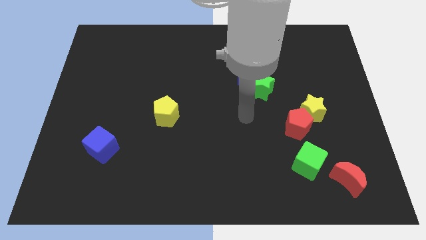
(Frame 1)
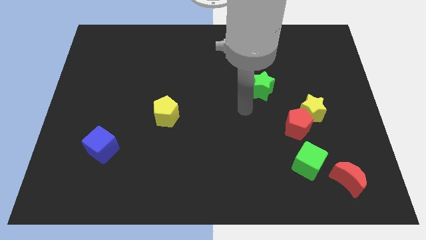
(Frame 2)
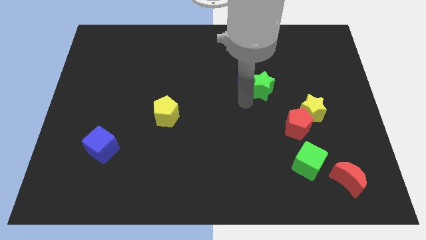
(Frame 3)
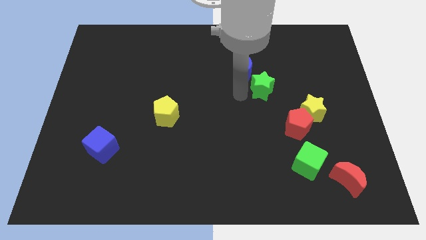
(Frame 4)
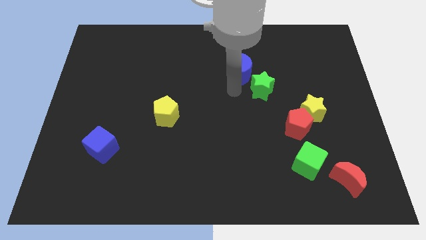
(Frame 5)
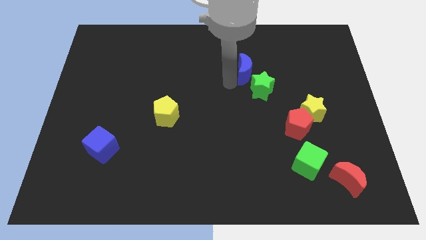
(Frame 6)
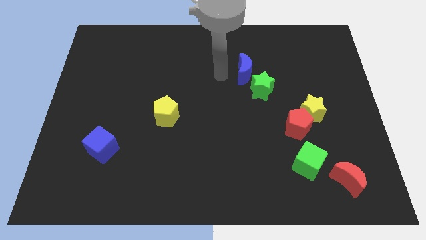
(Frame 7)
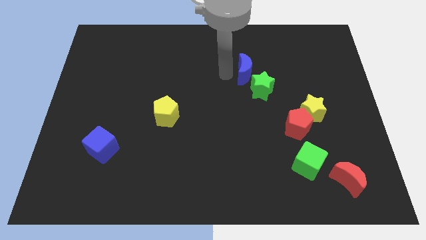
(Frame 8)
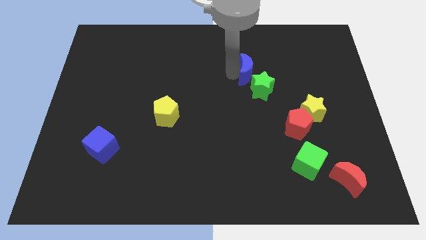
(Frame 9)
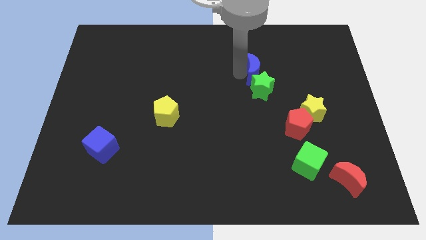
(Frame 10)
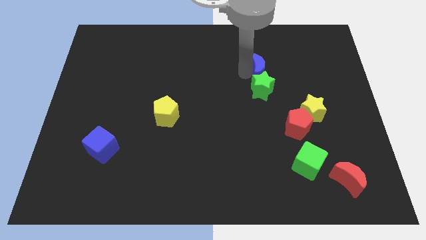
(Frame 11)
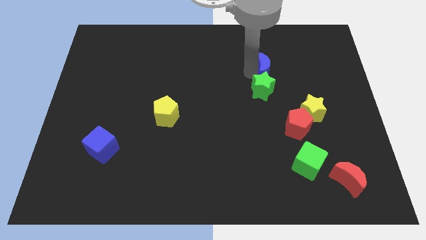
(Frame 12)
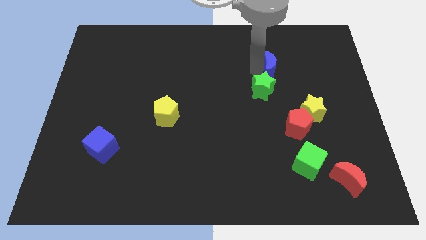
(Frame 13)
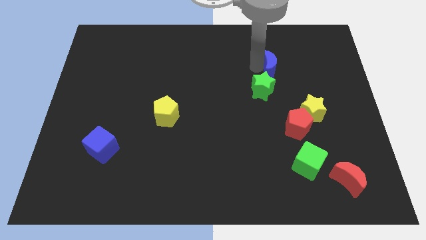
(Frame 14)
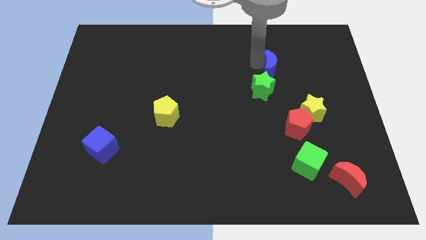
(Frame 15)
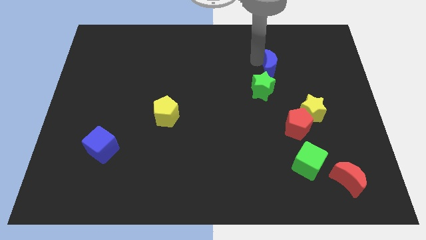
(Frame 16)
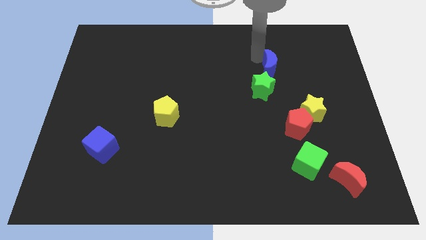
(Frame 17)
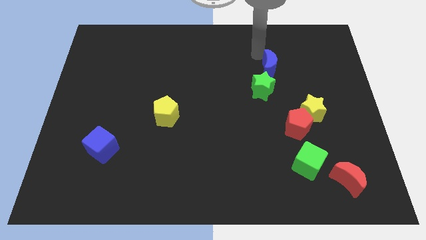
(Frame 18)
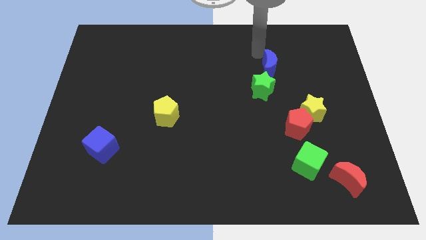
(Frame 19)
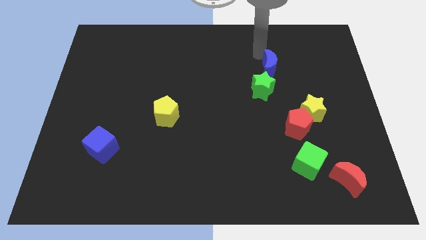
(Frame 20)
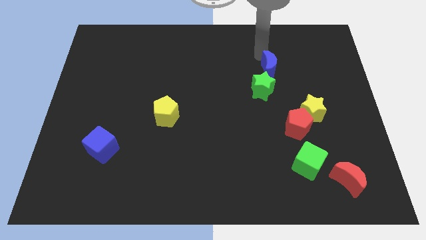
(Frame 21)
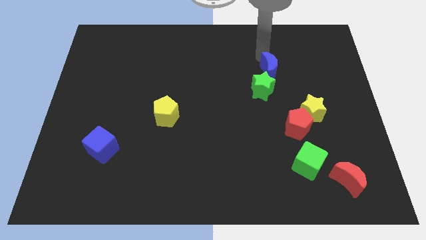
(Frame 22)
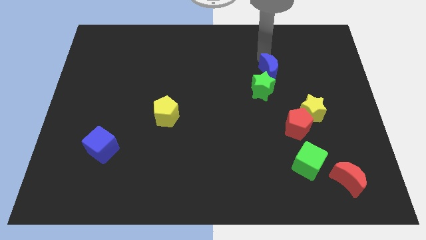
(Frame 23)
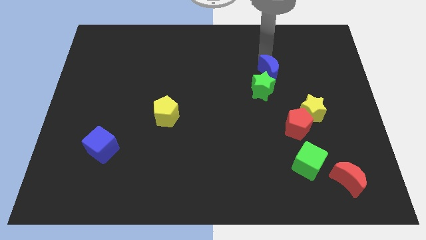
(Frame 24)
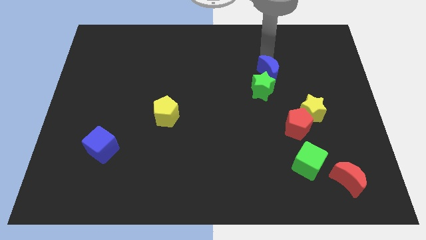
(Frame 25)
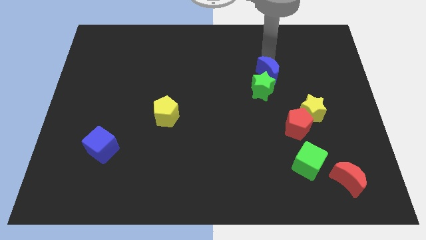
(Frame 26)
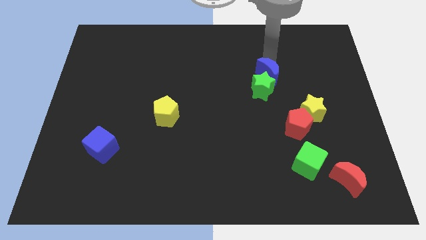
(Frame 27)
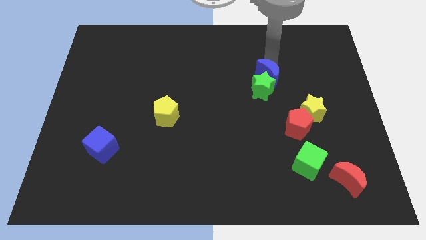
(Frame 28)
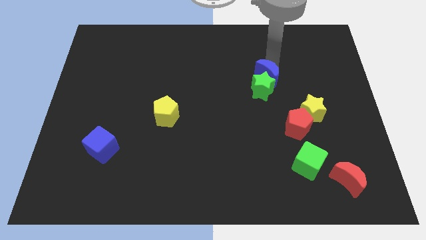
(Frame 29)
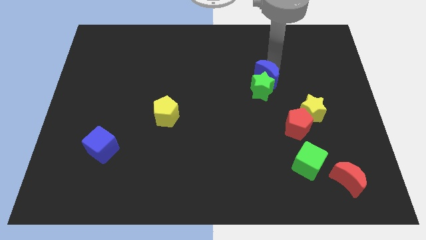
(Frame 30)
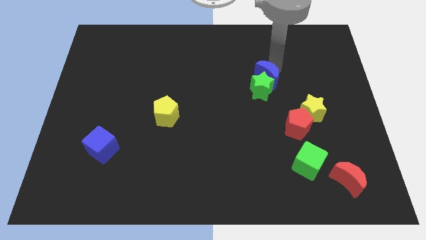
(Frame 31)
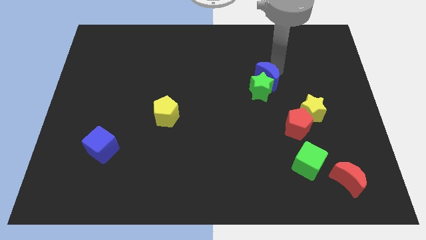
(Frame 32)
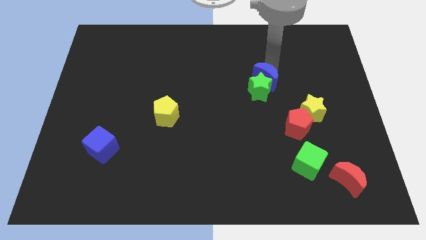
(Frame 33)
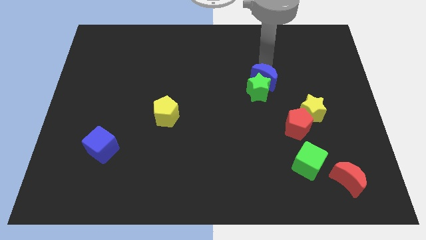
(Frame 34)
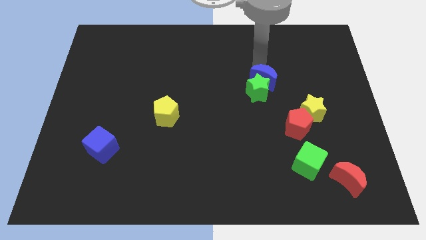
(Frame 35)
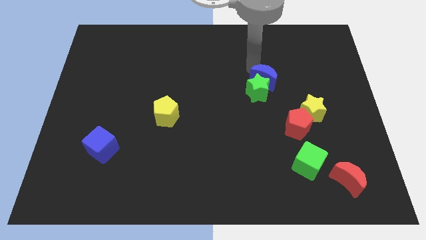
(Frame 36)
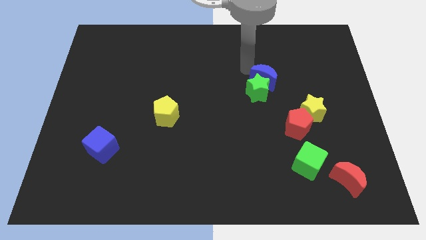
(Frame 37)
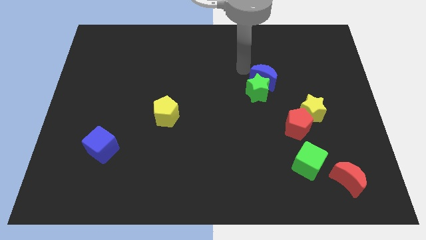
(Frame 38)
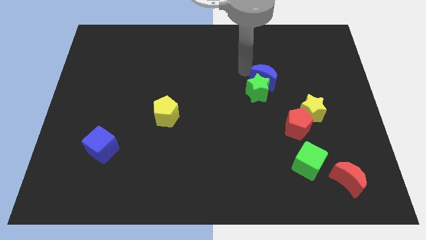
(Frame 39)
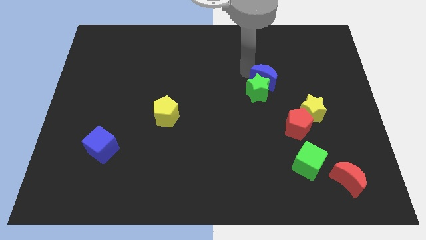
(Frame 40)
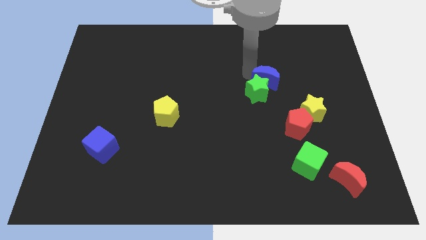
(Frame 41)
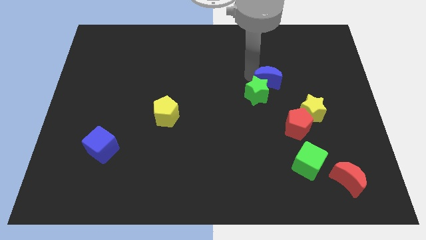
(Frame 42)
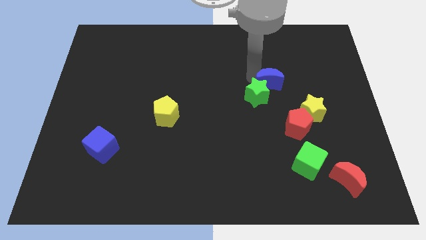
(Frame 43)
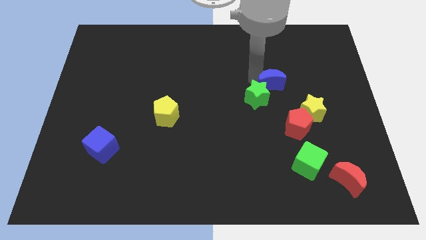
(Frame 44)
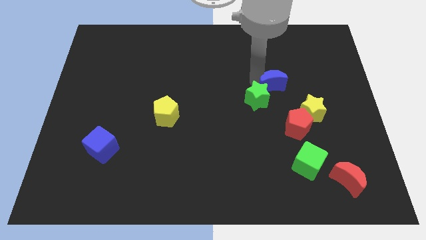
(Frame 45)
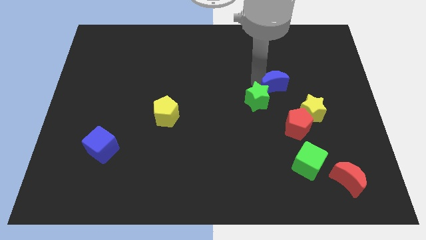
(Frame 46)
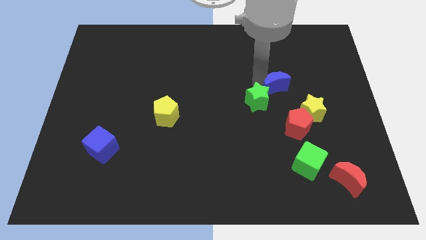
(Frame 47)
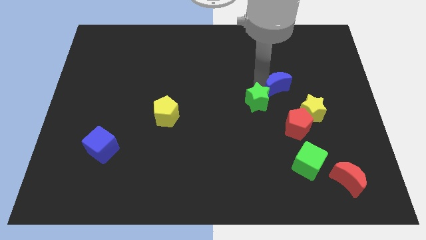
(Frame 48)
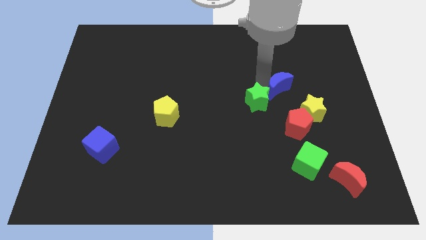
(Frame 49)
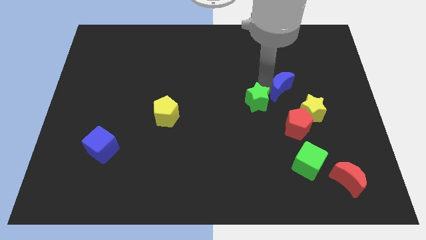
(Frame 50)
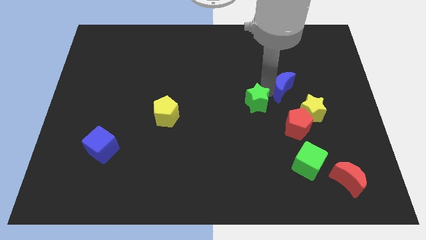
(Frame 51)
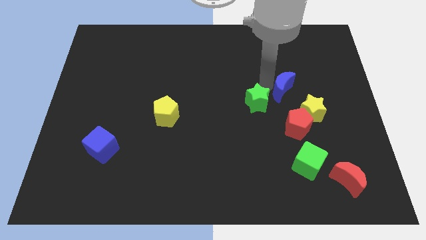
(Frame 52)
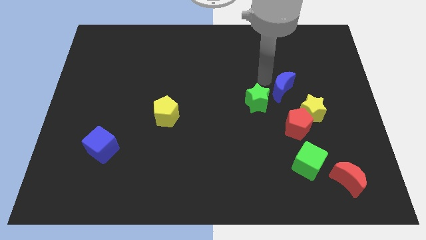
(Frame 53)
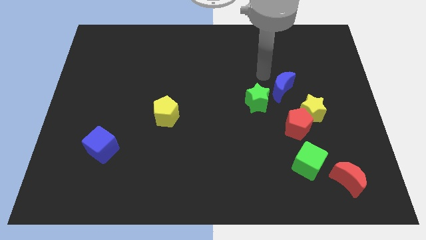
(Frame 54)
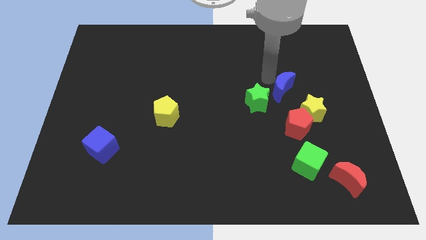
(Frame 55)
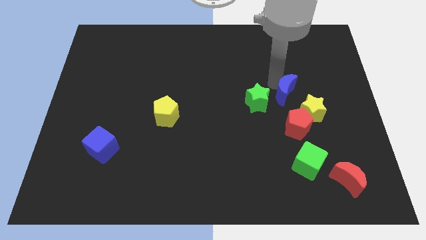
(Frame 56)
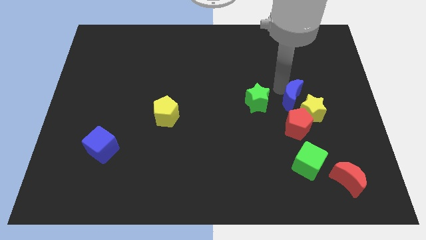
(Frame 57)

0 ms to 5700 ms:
slide the blue moon close to the yellow star

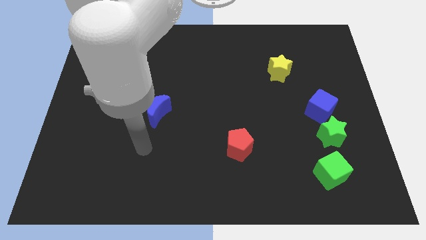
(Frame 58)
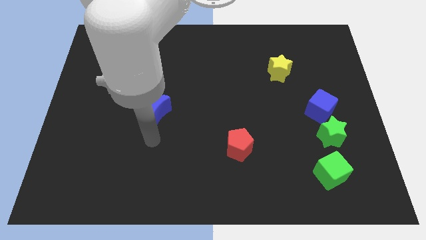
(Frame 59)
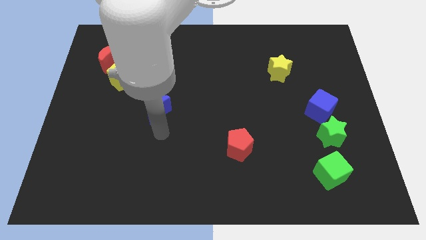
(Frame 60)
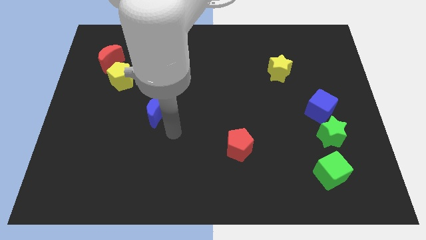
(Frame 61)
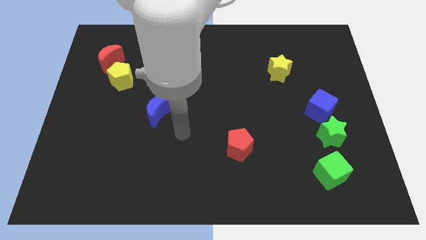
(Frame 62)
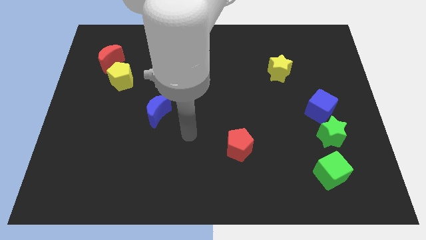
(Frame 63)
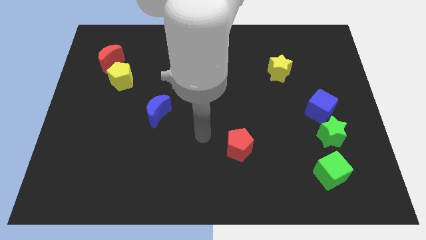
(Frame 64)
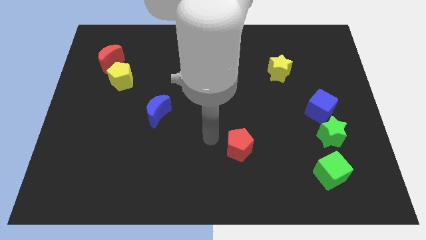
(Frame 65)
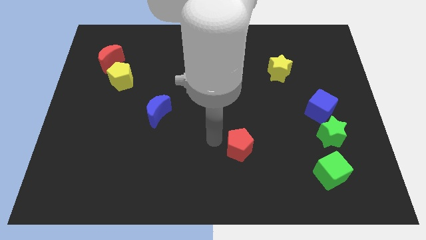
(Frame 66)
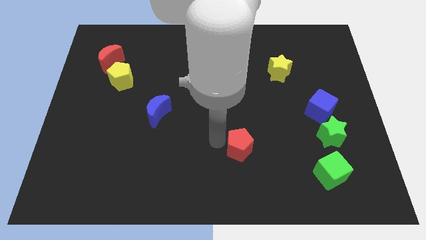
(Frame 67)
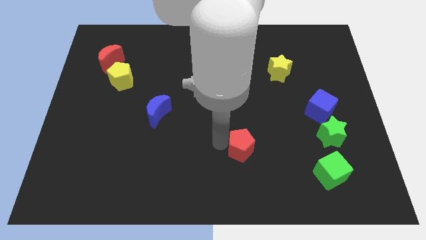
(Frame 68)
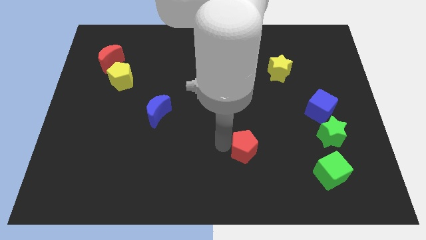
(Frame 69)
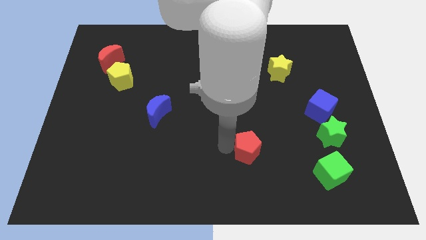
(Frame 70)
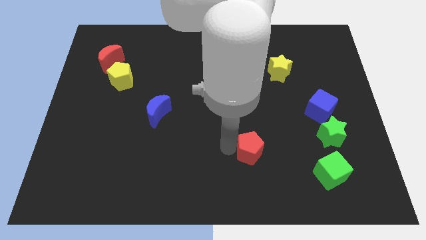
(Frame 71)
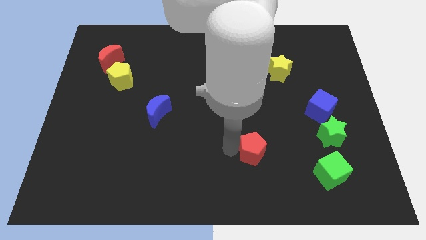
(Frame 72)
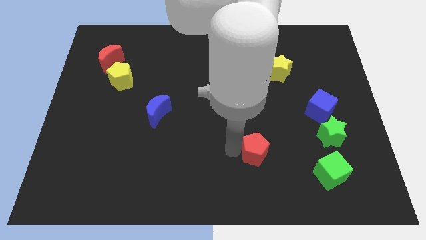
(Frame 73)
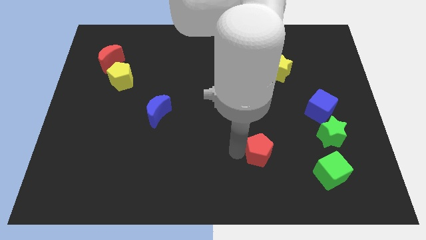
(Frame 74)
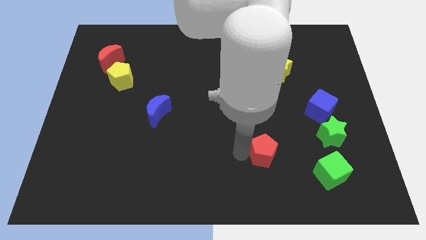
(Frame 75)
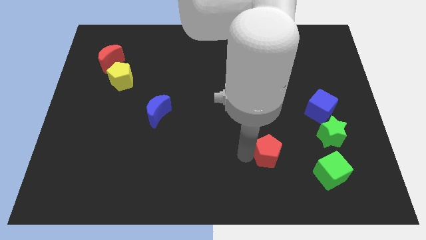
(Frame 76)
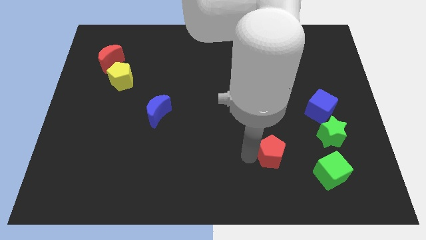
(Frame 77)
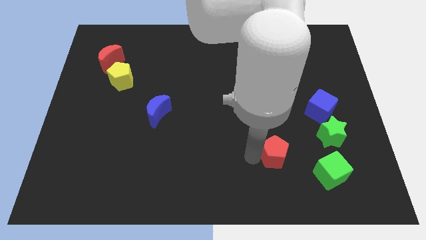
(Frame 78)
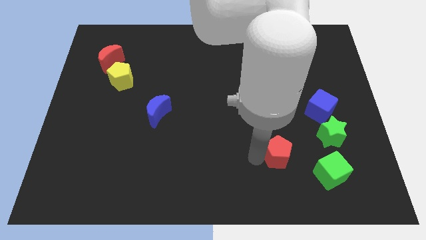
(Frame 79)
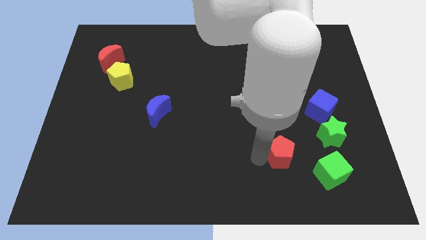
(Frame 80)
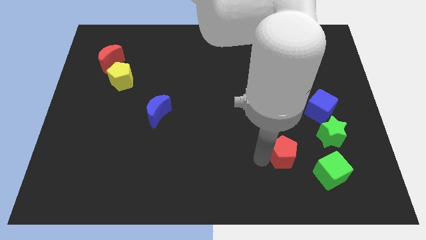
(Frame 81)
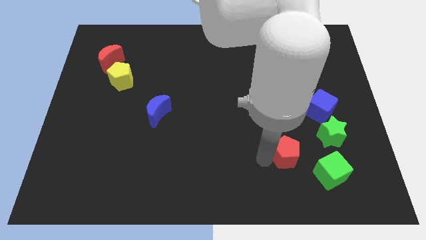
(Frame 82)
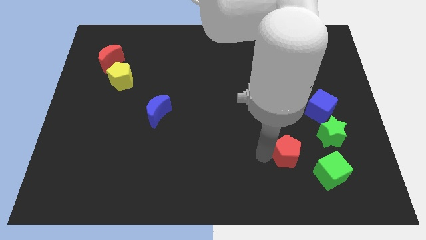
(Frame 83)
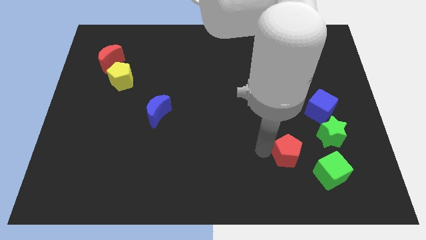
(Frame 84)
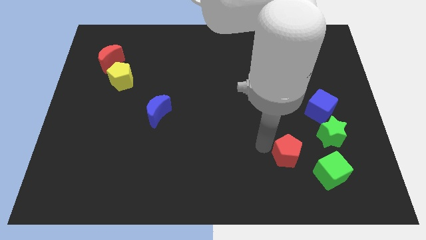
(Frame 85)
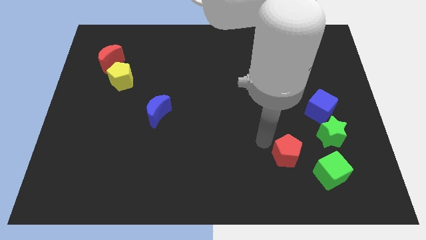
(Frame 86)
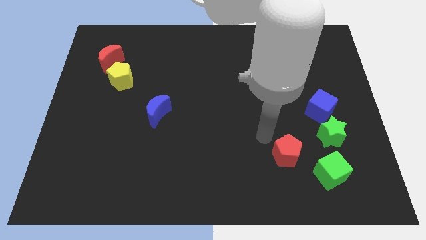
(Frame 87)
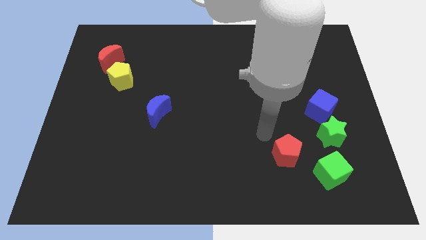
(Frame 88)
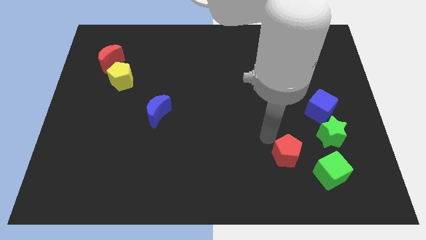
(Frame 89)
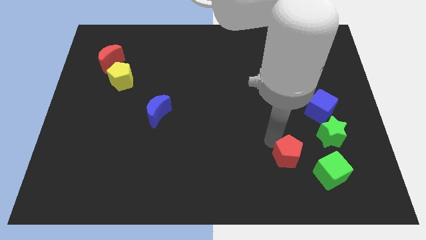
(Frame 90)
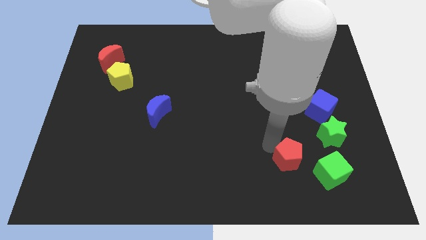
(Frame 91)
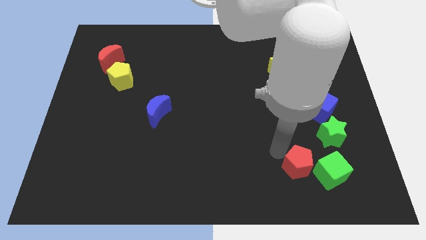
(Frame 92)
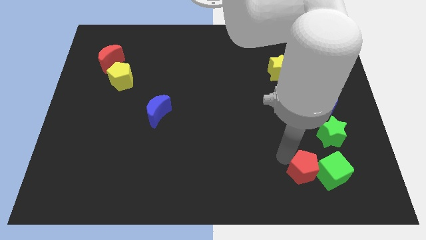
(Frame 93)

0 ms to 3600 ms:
slide the red pentagon next to the green cube
